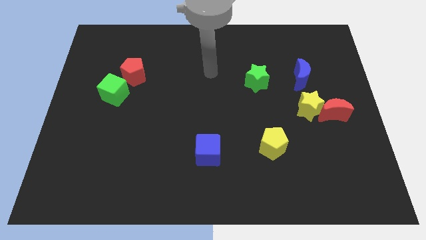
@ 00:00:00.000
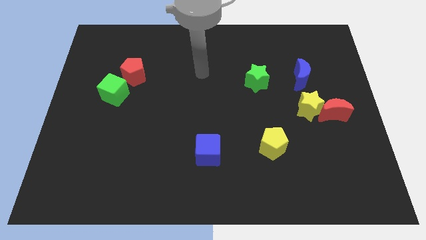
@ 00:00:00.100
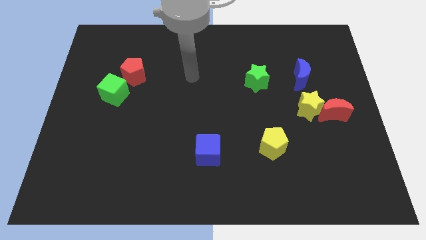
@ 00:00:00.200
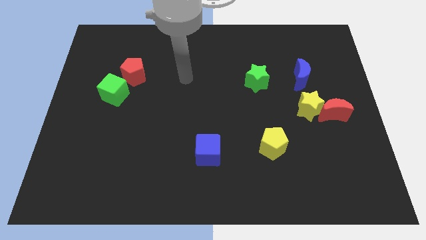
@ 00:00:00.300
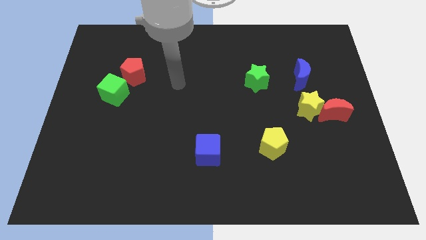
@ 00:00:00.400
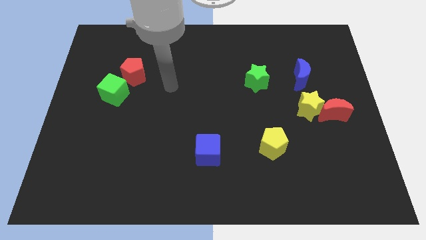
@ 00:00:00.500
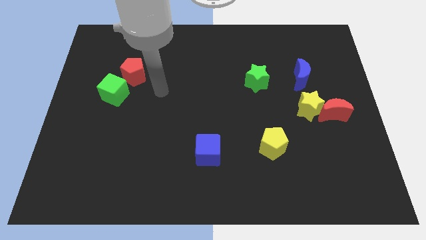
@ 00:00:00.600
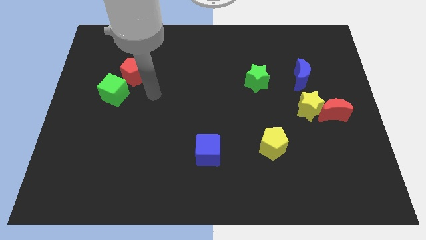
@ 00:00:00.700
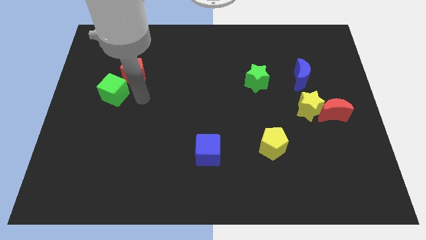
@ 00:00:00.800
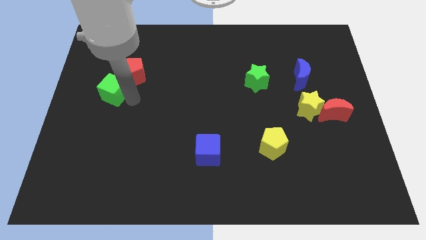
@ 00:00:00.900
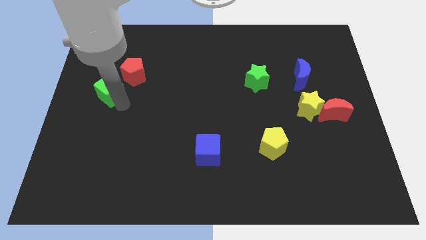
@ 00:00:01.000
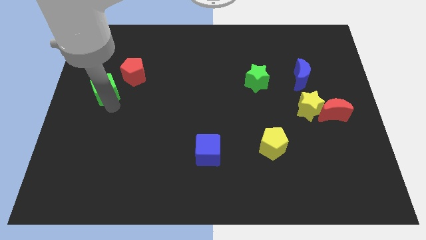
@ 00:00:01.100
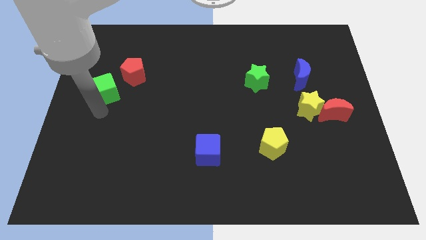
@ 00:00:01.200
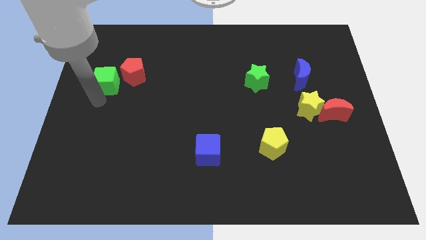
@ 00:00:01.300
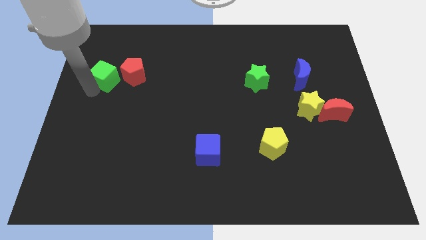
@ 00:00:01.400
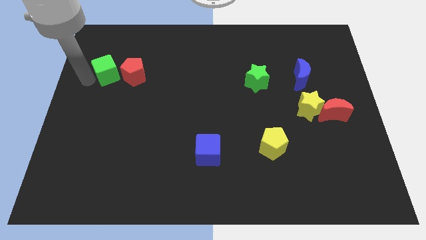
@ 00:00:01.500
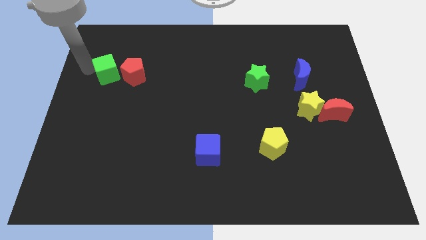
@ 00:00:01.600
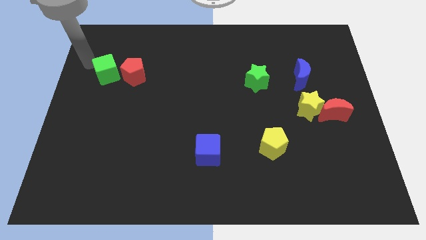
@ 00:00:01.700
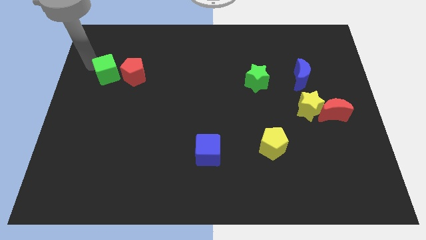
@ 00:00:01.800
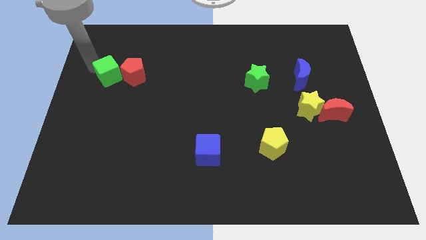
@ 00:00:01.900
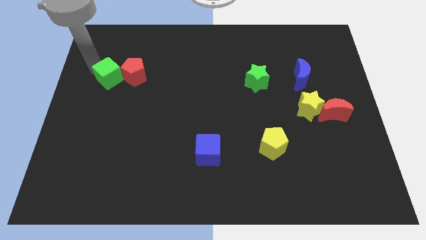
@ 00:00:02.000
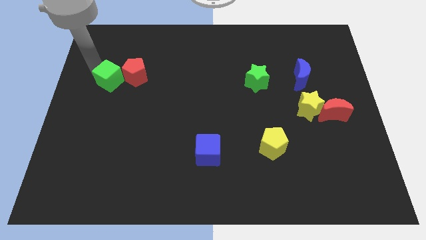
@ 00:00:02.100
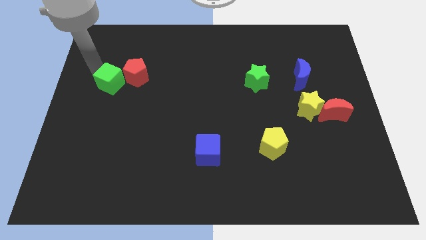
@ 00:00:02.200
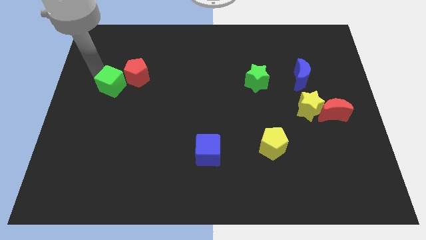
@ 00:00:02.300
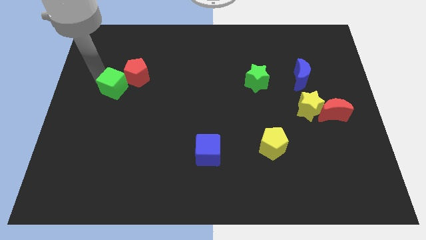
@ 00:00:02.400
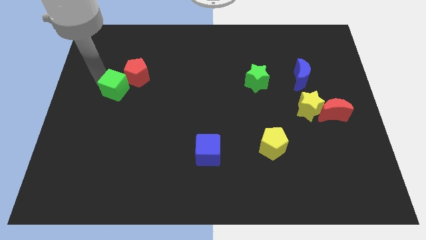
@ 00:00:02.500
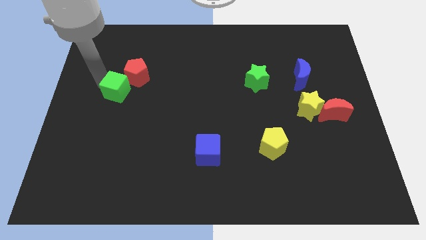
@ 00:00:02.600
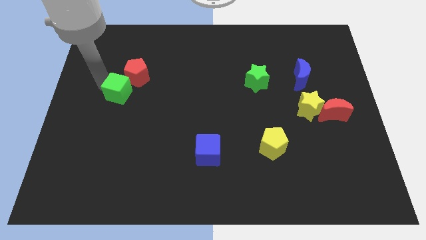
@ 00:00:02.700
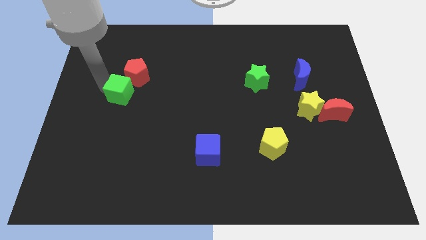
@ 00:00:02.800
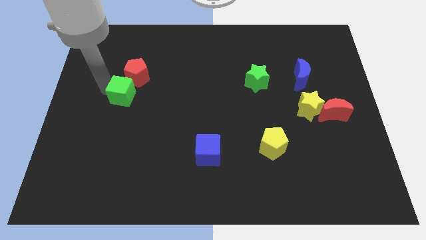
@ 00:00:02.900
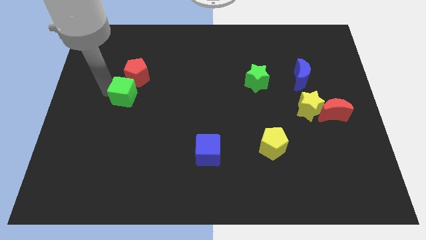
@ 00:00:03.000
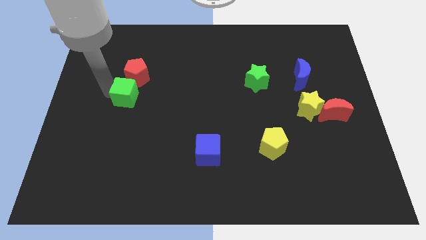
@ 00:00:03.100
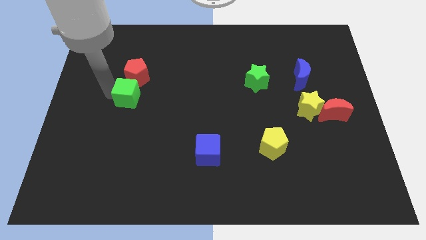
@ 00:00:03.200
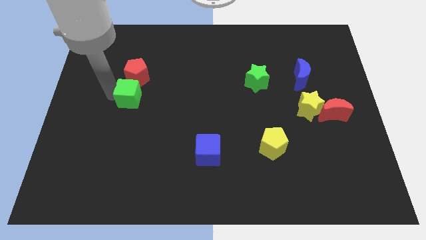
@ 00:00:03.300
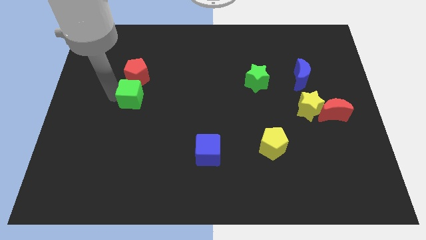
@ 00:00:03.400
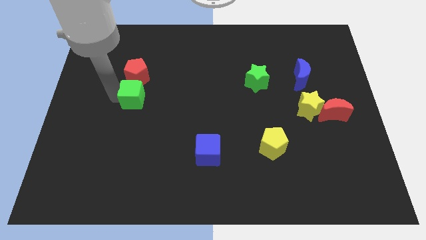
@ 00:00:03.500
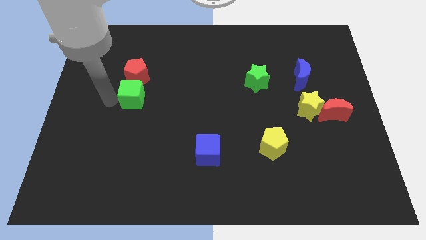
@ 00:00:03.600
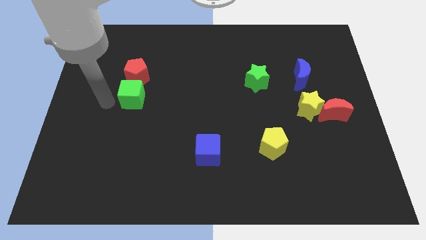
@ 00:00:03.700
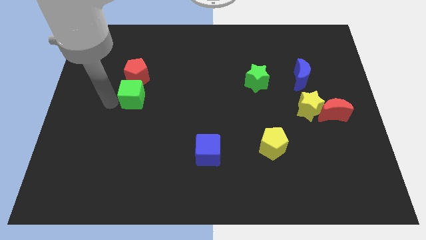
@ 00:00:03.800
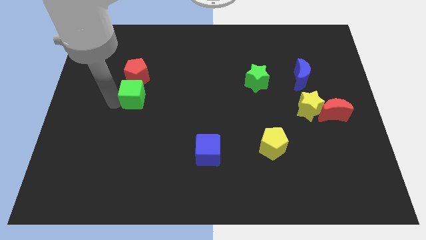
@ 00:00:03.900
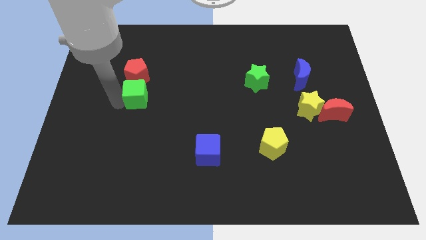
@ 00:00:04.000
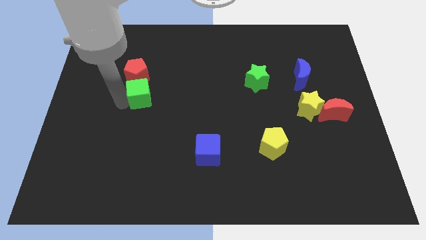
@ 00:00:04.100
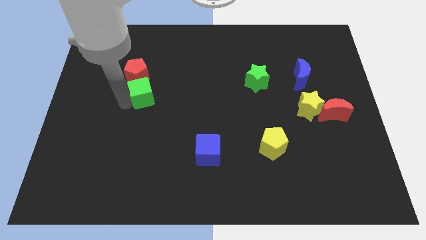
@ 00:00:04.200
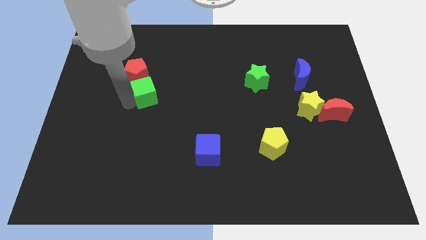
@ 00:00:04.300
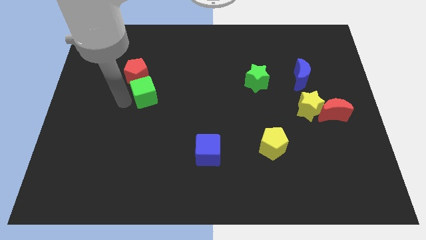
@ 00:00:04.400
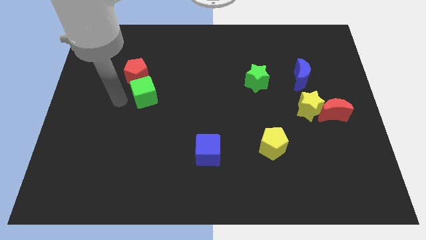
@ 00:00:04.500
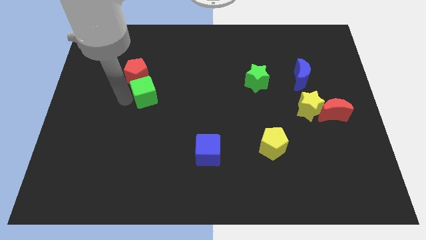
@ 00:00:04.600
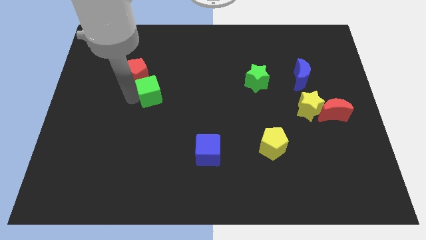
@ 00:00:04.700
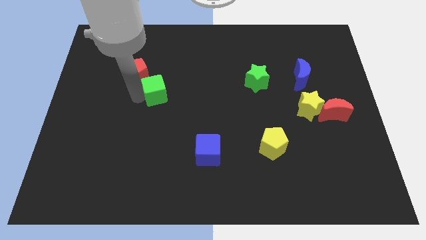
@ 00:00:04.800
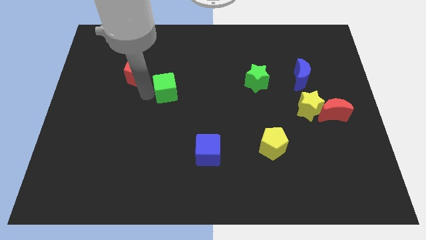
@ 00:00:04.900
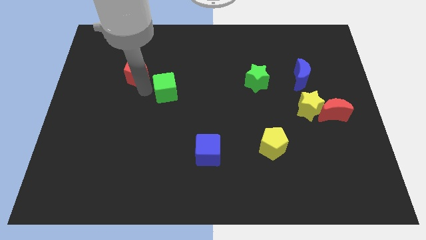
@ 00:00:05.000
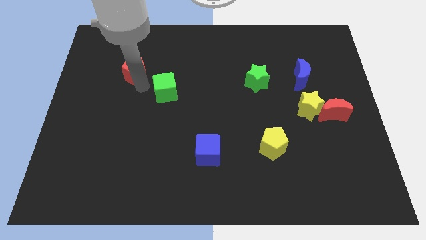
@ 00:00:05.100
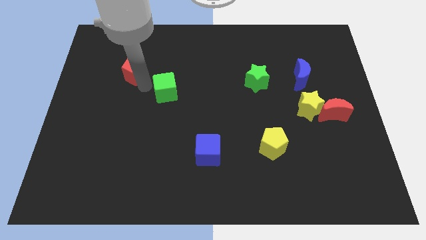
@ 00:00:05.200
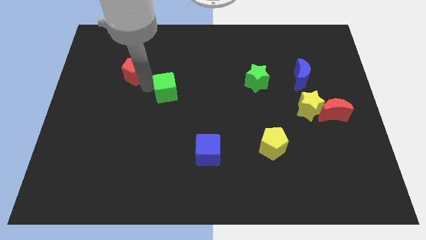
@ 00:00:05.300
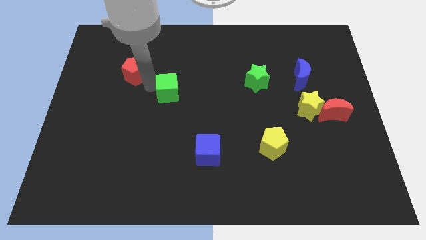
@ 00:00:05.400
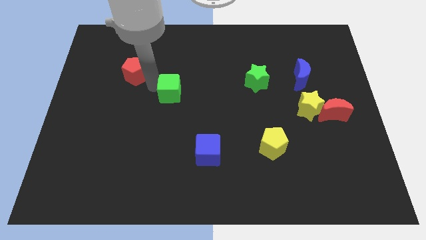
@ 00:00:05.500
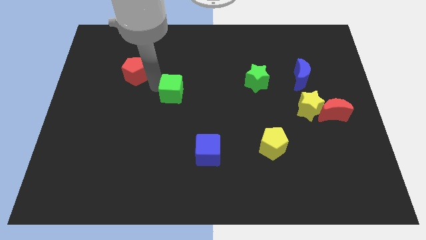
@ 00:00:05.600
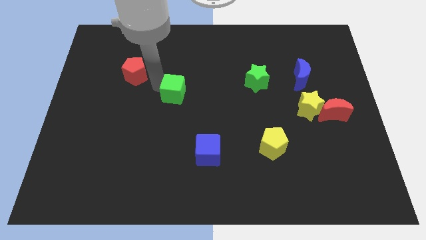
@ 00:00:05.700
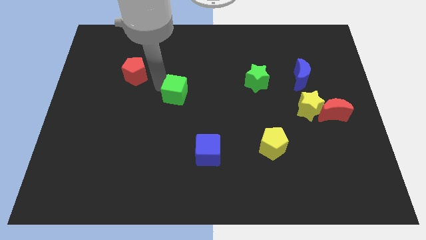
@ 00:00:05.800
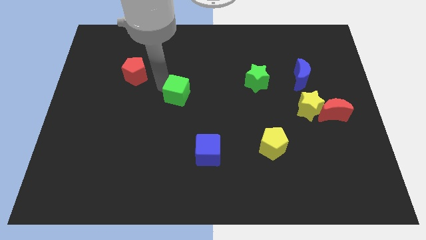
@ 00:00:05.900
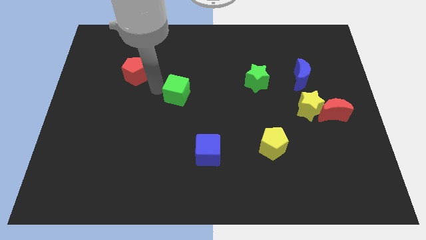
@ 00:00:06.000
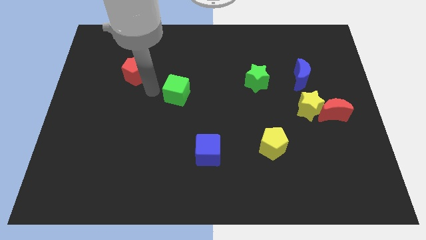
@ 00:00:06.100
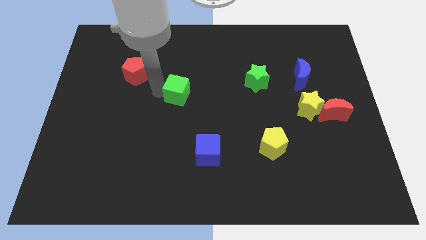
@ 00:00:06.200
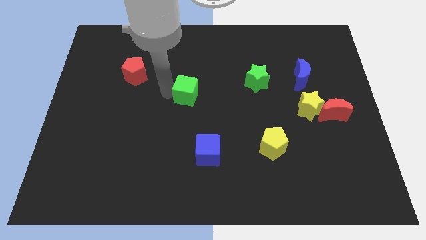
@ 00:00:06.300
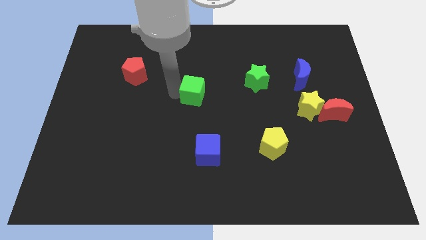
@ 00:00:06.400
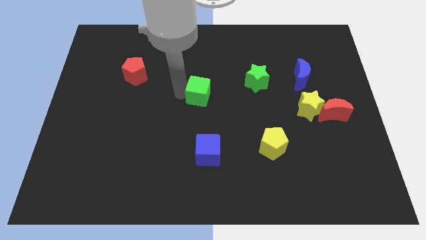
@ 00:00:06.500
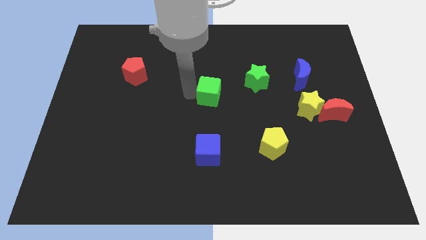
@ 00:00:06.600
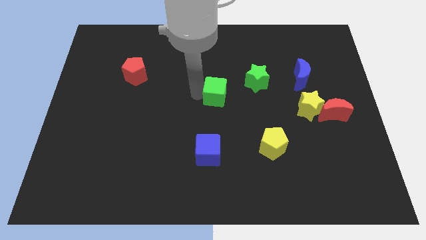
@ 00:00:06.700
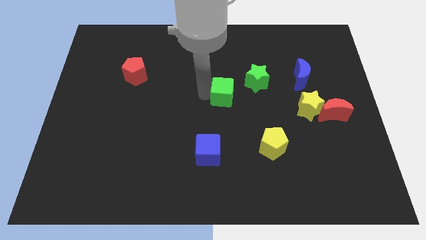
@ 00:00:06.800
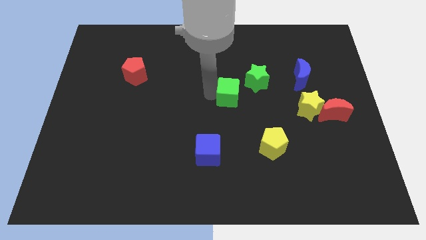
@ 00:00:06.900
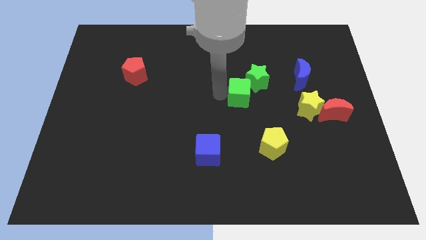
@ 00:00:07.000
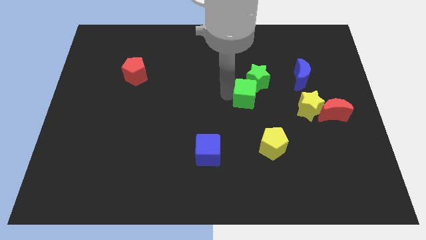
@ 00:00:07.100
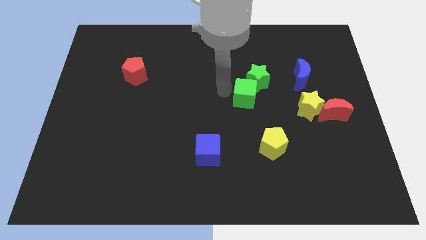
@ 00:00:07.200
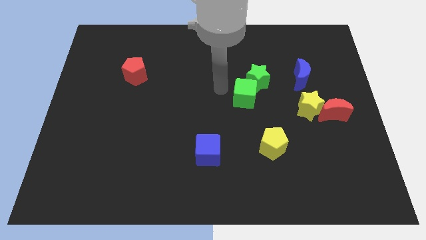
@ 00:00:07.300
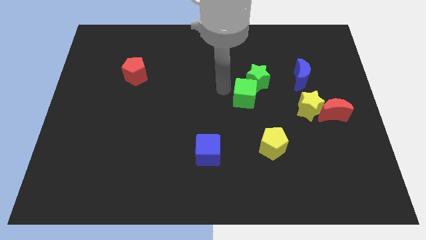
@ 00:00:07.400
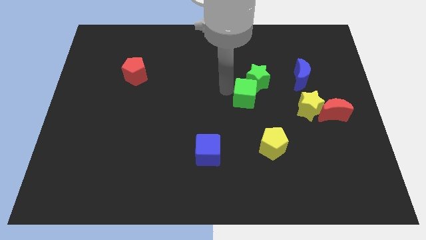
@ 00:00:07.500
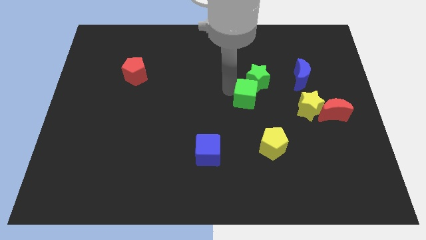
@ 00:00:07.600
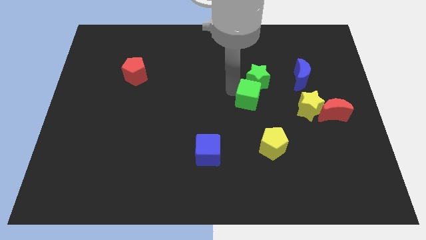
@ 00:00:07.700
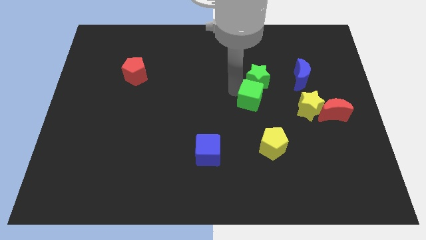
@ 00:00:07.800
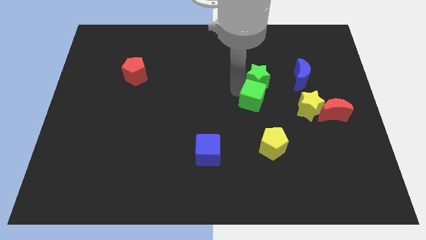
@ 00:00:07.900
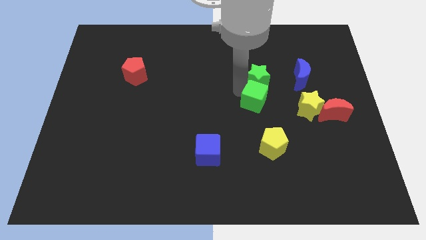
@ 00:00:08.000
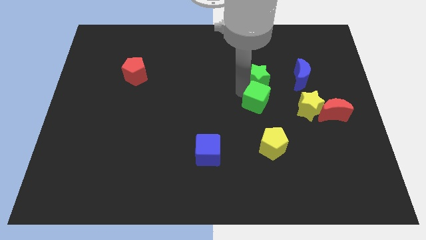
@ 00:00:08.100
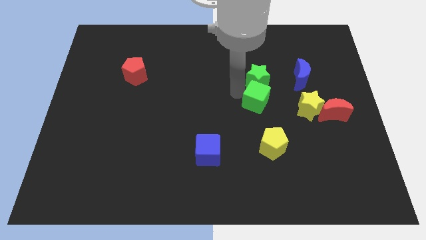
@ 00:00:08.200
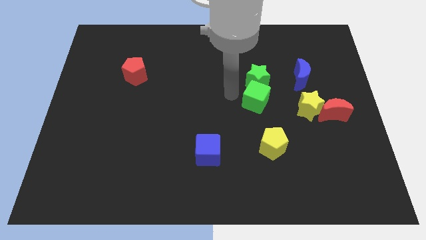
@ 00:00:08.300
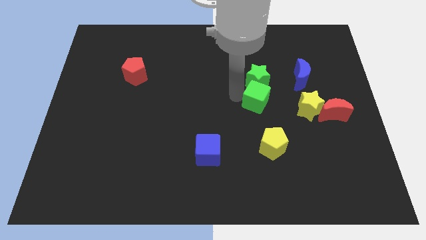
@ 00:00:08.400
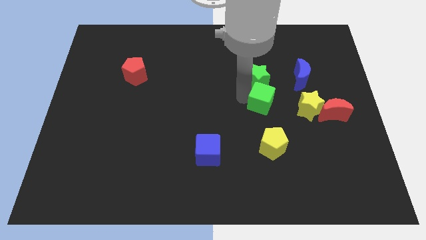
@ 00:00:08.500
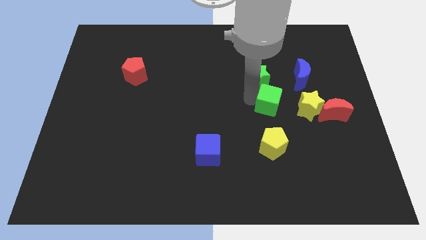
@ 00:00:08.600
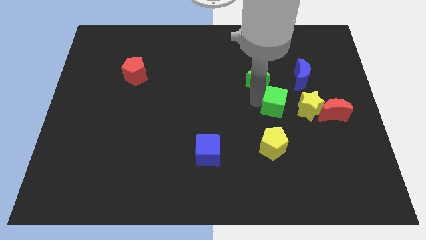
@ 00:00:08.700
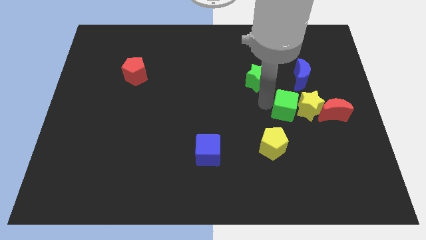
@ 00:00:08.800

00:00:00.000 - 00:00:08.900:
move the green cube to the yellow star
